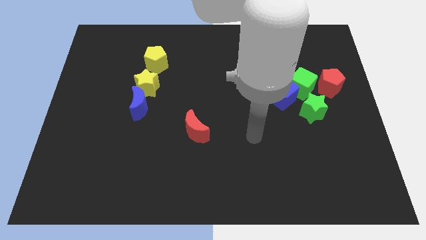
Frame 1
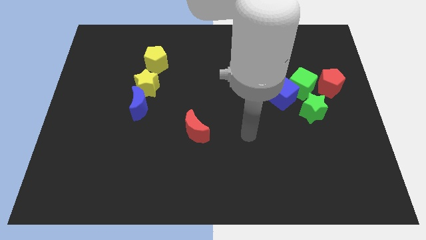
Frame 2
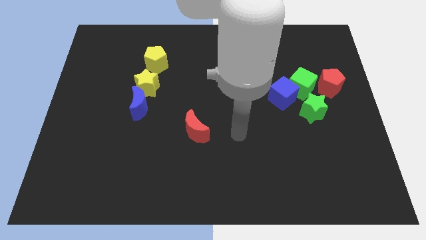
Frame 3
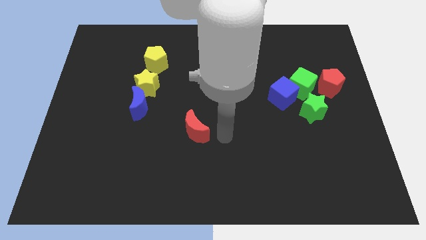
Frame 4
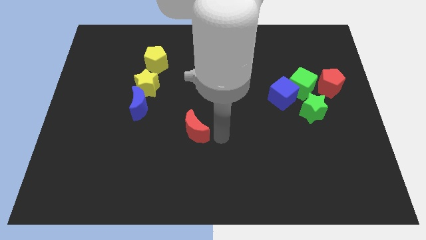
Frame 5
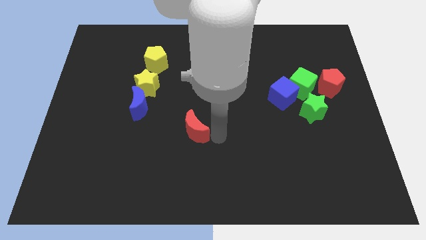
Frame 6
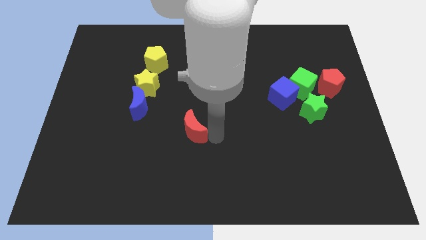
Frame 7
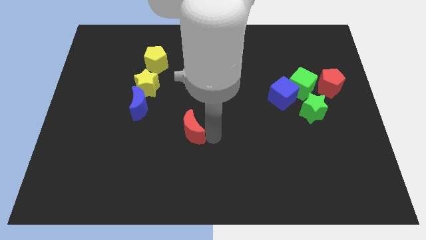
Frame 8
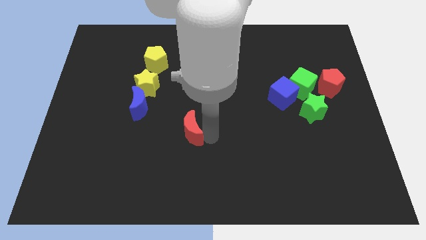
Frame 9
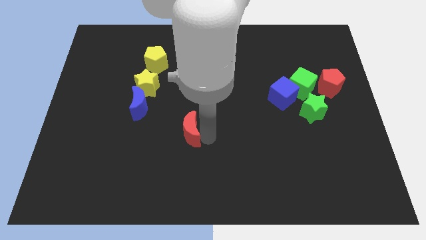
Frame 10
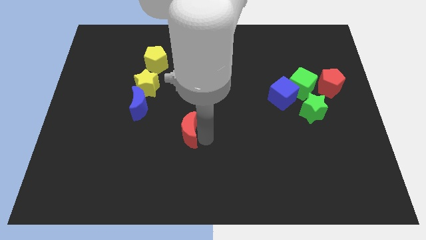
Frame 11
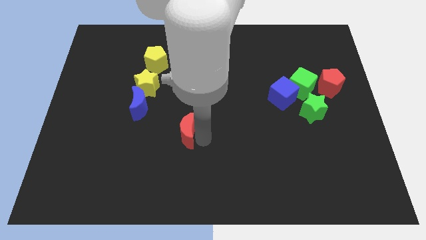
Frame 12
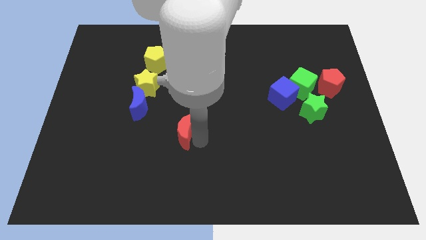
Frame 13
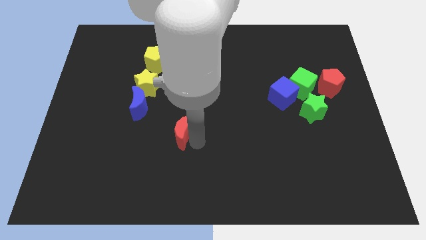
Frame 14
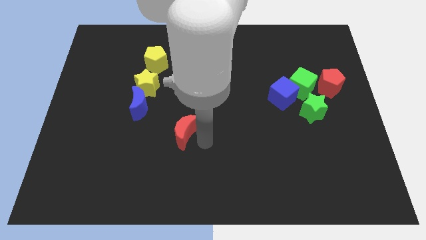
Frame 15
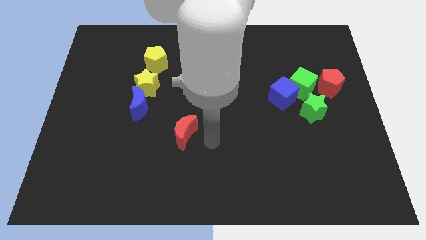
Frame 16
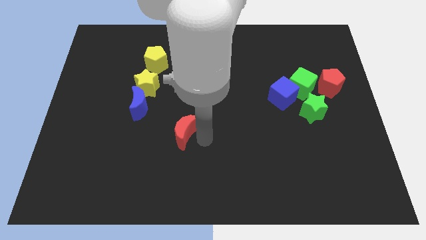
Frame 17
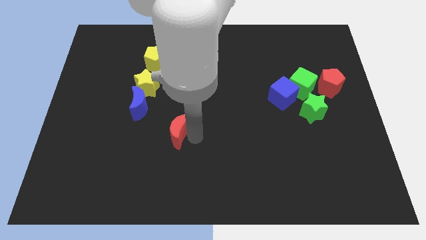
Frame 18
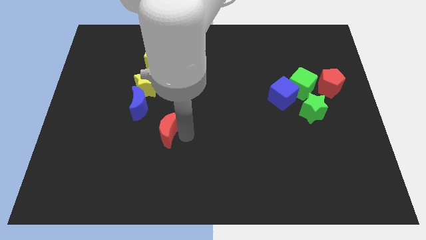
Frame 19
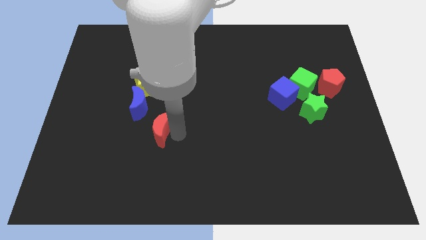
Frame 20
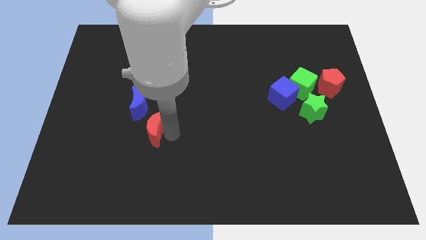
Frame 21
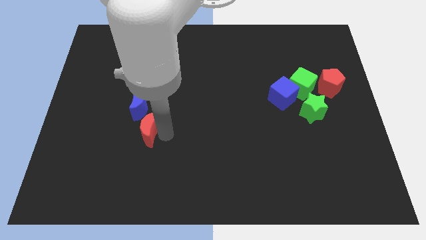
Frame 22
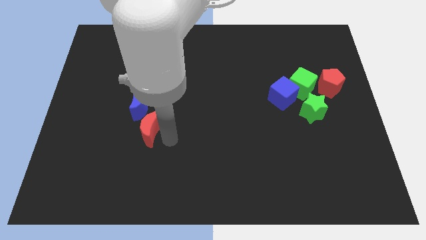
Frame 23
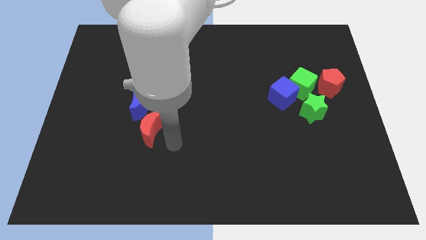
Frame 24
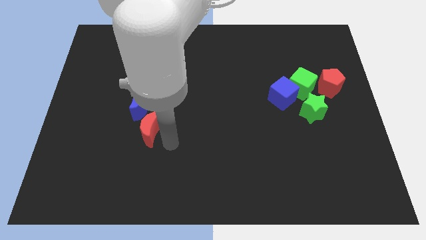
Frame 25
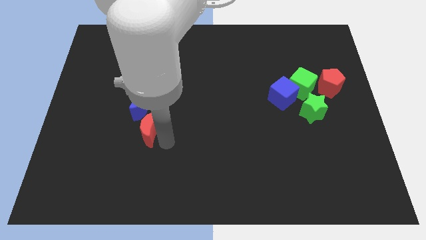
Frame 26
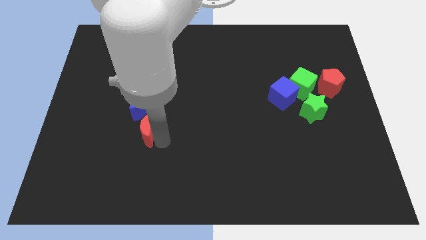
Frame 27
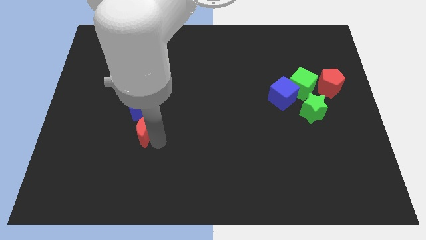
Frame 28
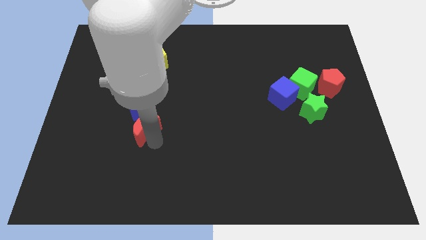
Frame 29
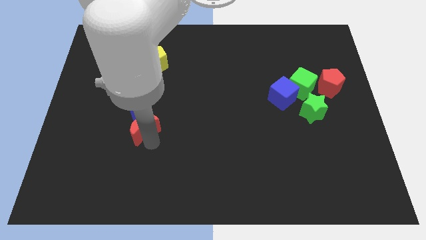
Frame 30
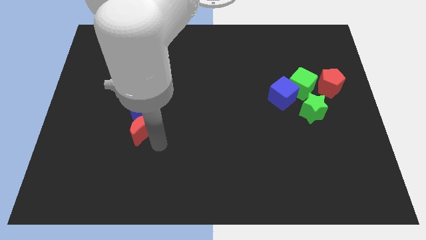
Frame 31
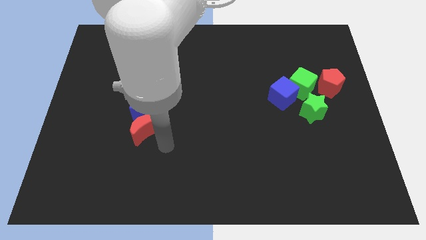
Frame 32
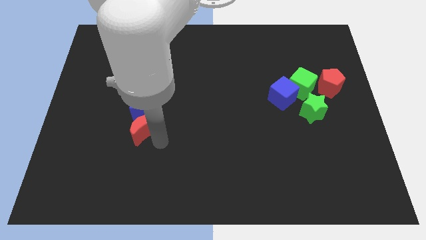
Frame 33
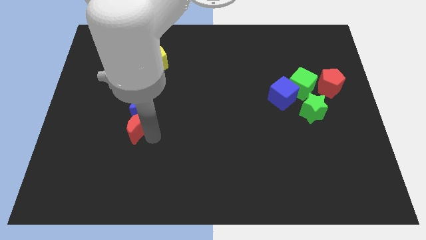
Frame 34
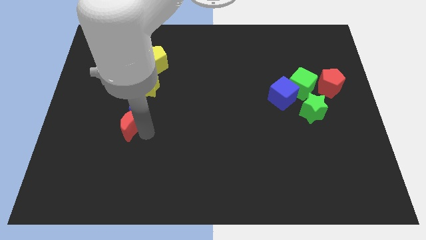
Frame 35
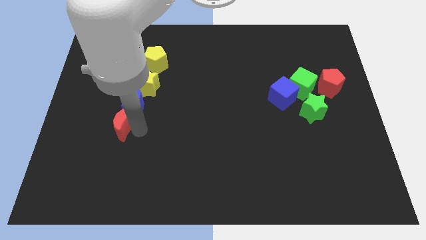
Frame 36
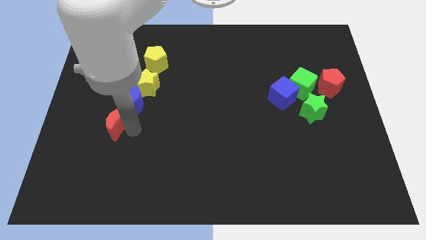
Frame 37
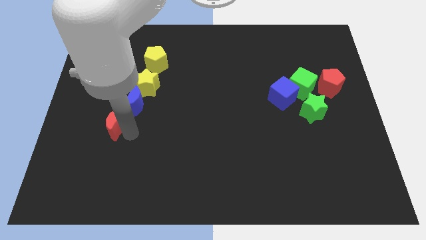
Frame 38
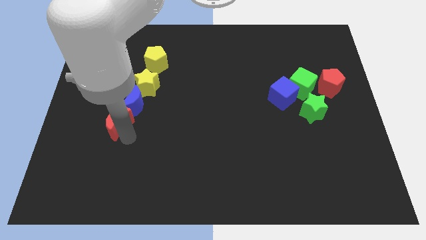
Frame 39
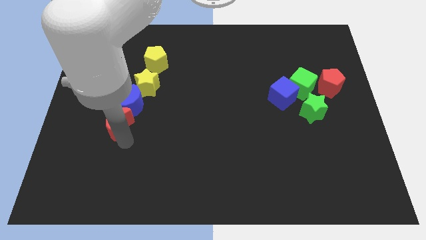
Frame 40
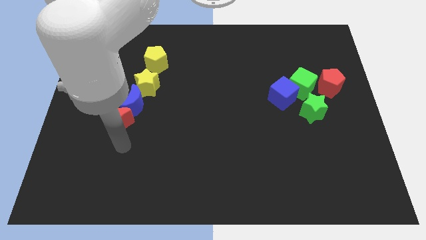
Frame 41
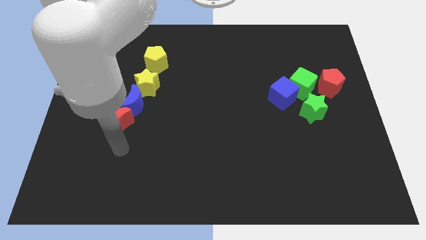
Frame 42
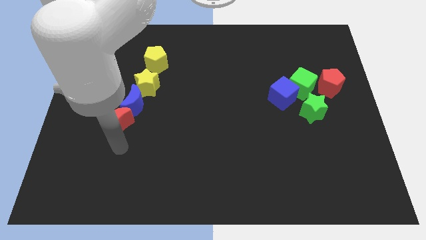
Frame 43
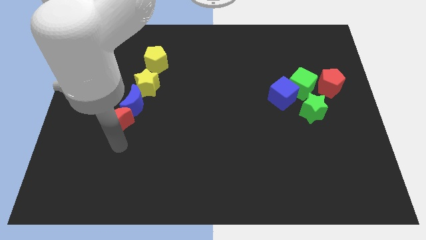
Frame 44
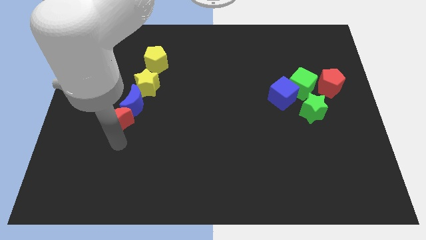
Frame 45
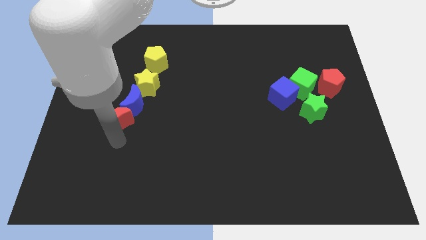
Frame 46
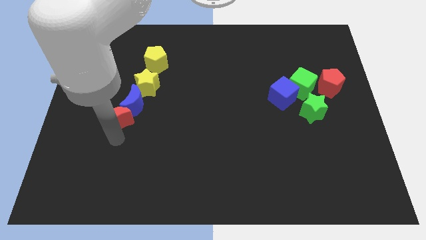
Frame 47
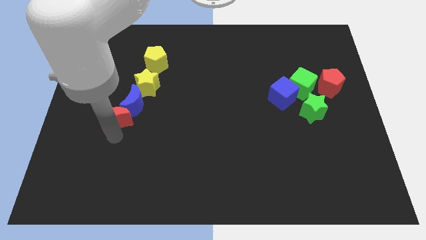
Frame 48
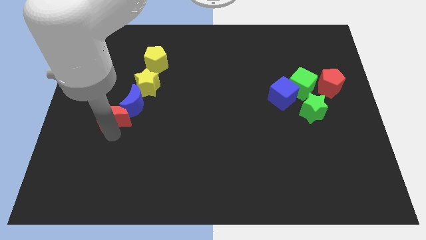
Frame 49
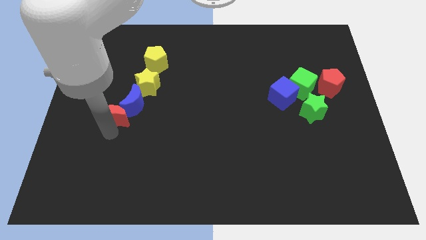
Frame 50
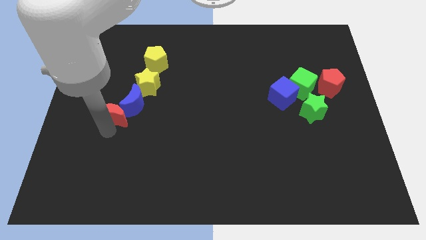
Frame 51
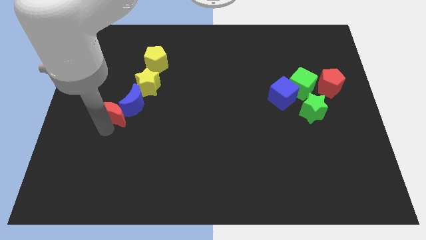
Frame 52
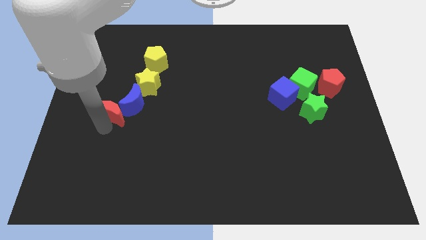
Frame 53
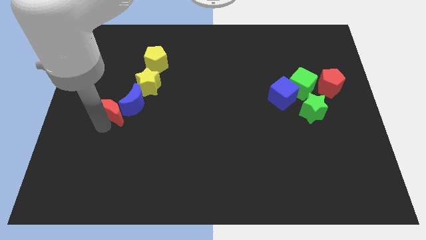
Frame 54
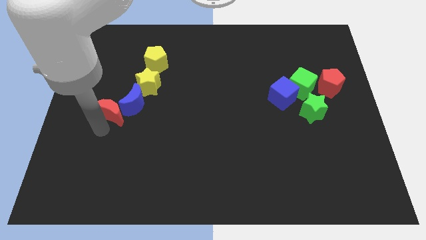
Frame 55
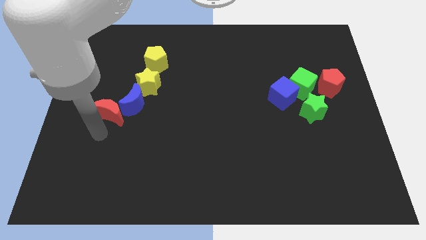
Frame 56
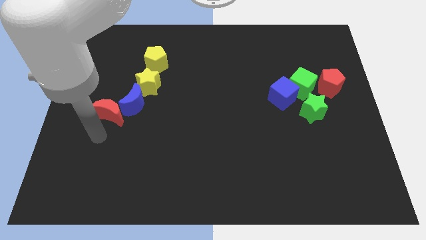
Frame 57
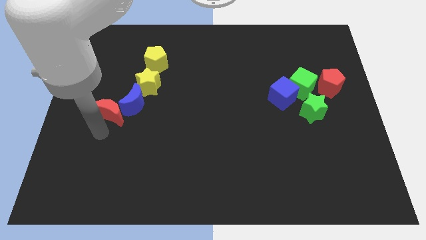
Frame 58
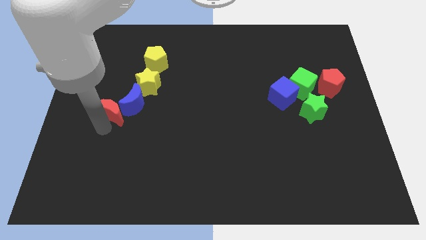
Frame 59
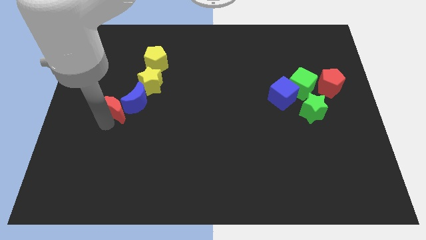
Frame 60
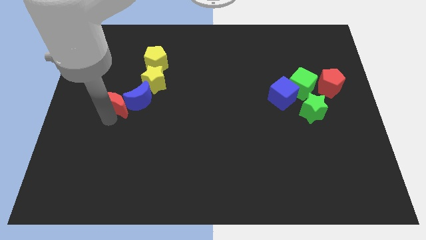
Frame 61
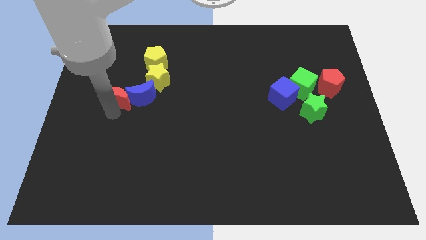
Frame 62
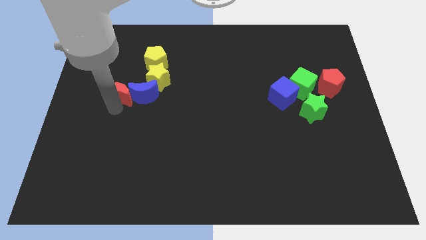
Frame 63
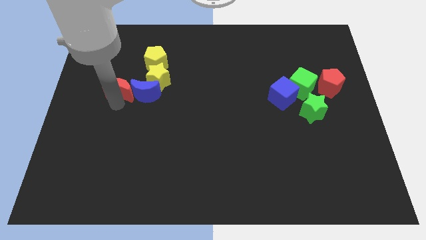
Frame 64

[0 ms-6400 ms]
push the red moon upwards and then to the left

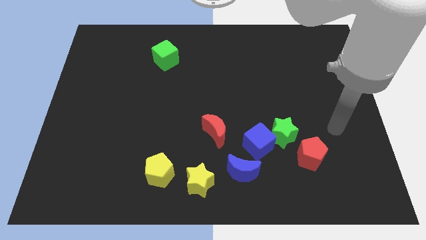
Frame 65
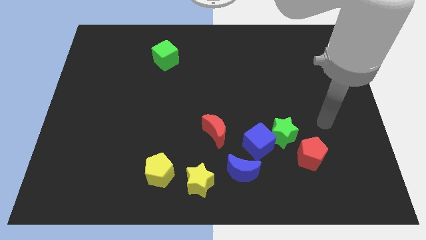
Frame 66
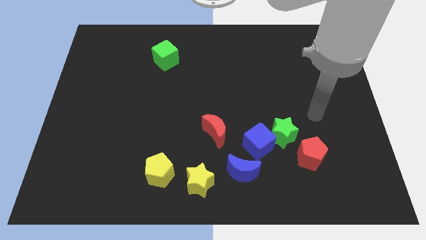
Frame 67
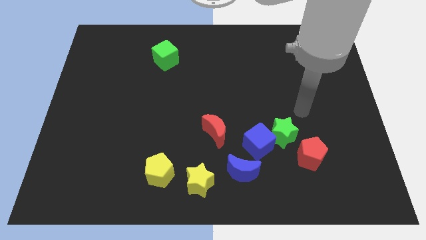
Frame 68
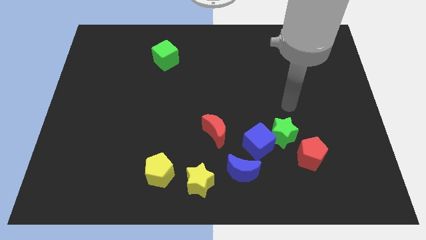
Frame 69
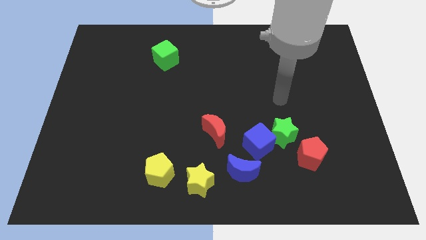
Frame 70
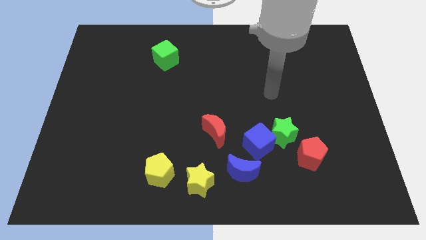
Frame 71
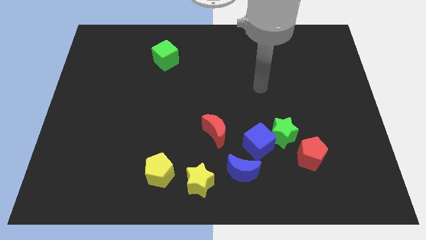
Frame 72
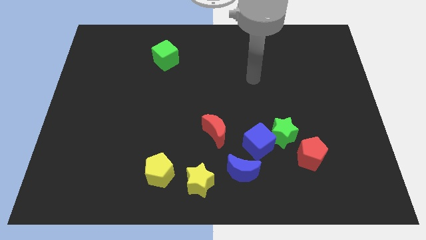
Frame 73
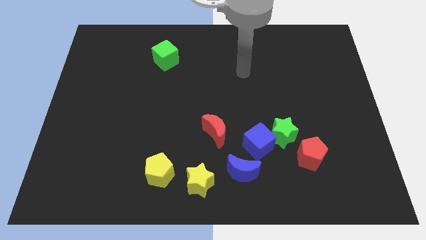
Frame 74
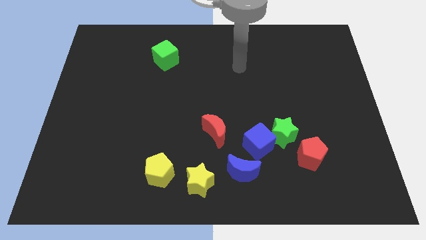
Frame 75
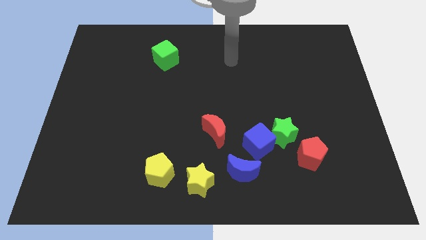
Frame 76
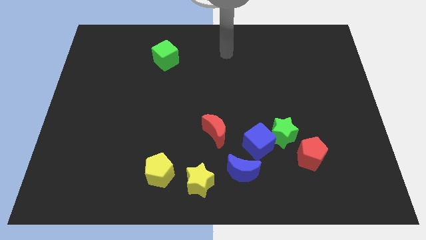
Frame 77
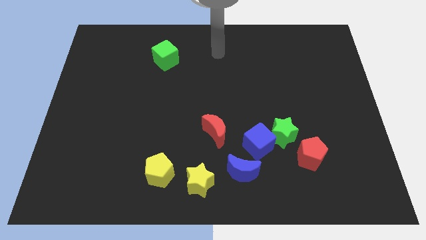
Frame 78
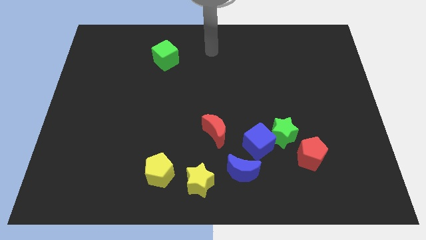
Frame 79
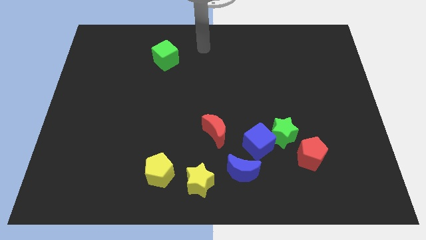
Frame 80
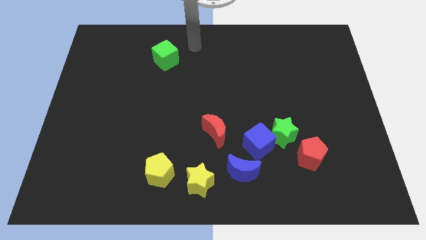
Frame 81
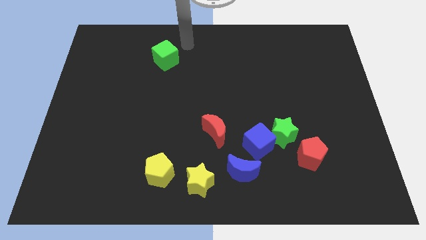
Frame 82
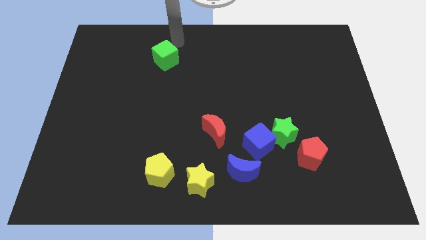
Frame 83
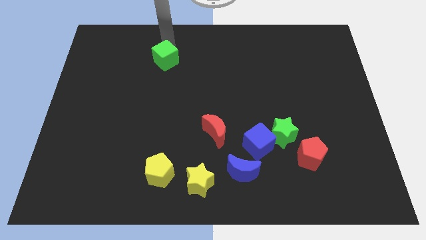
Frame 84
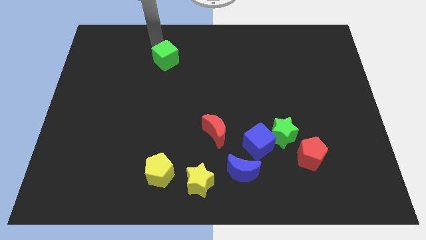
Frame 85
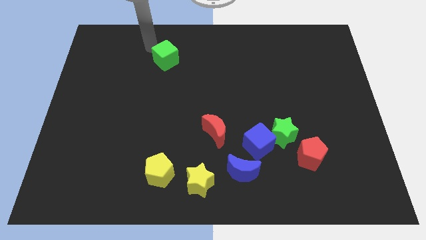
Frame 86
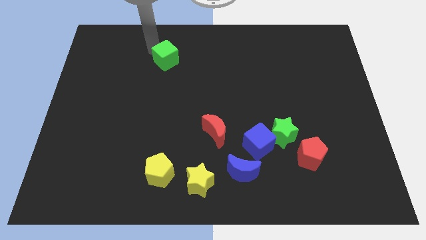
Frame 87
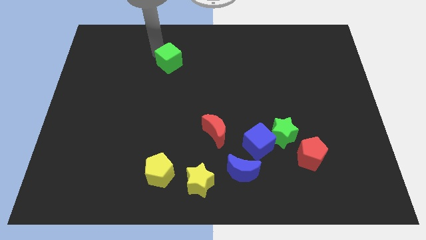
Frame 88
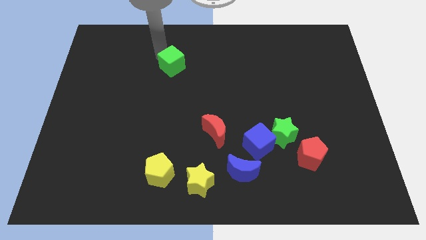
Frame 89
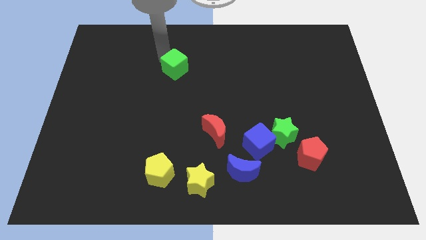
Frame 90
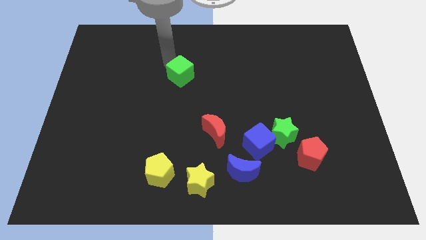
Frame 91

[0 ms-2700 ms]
slide the green cube downwards and to the right diagonally a little bit
